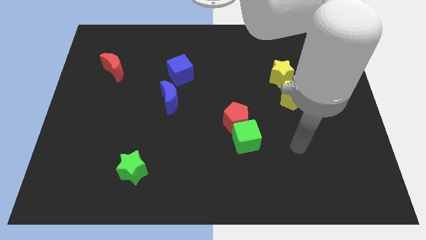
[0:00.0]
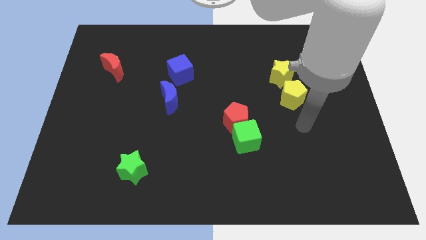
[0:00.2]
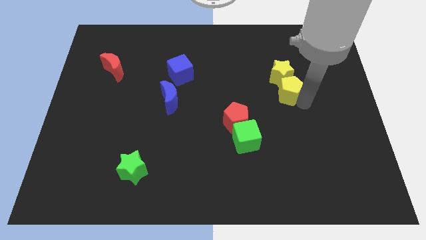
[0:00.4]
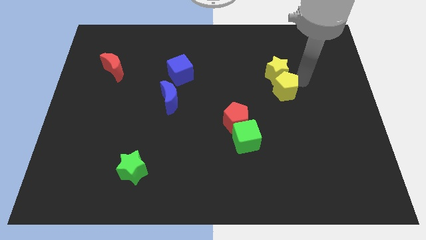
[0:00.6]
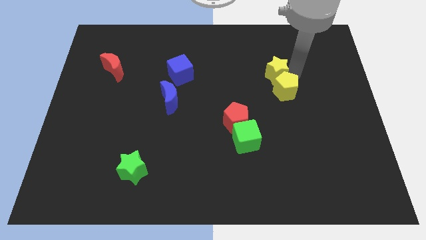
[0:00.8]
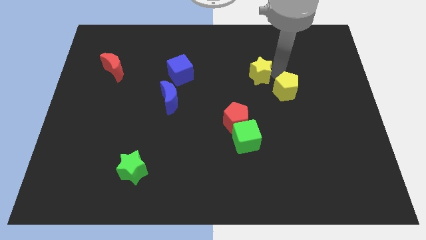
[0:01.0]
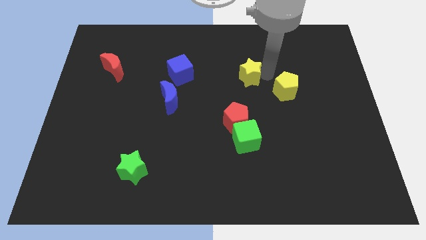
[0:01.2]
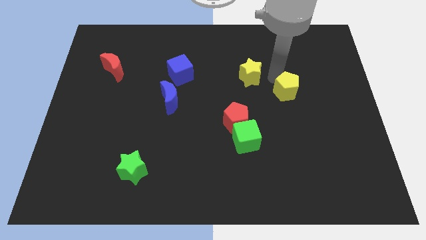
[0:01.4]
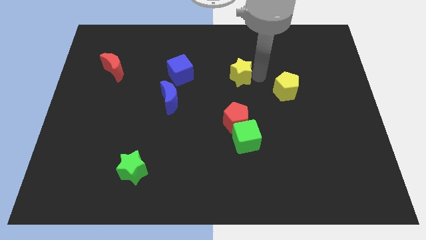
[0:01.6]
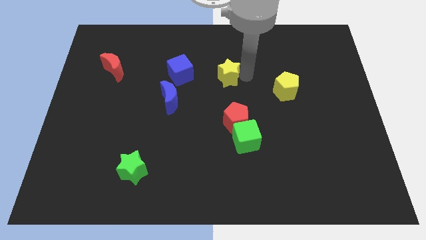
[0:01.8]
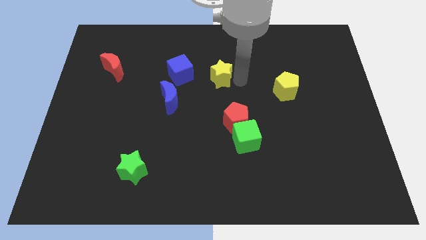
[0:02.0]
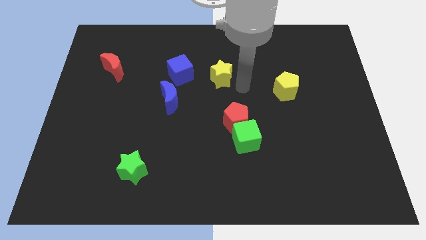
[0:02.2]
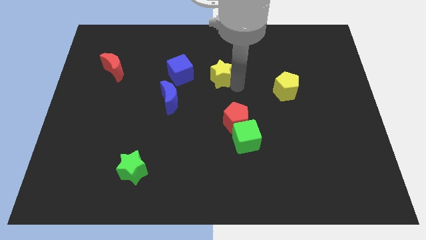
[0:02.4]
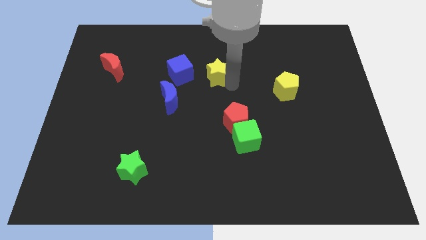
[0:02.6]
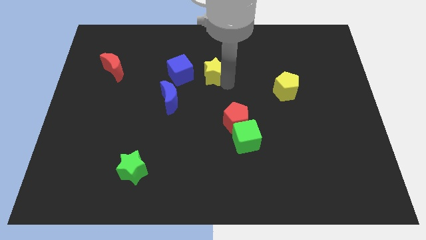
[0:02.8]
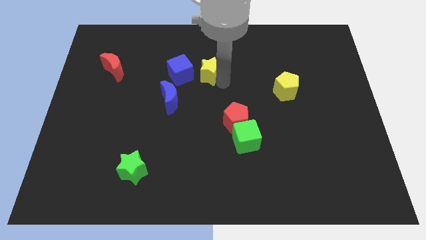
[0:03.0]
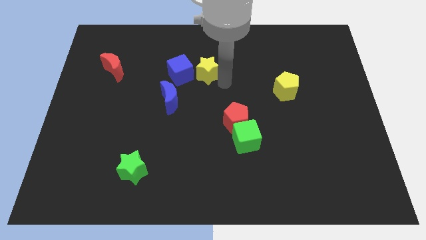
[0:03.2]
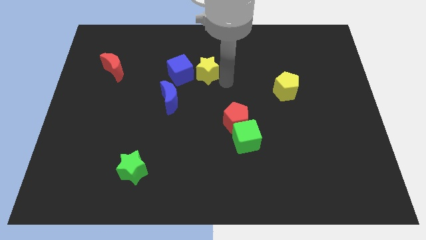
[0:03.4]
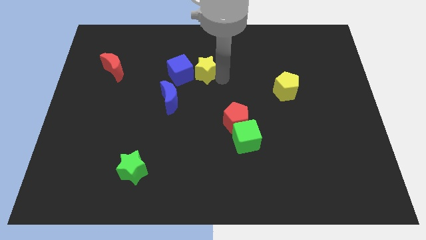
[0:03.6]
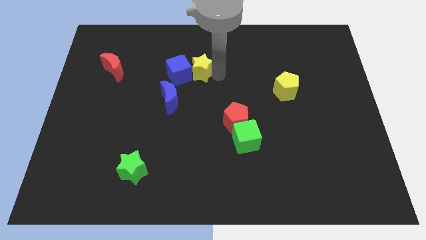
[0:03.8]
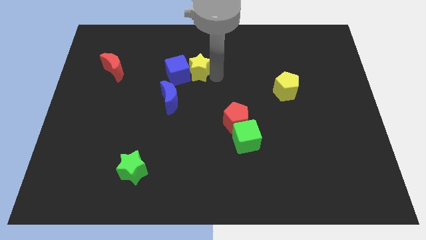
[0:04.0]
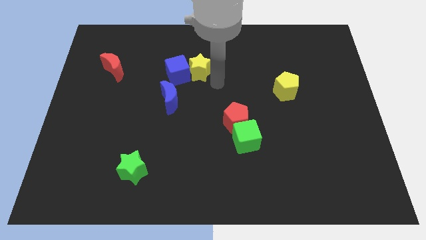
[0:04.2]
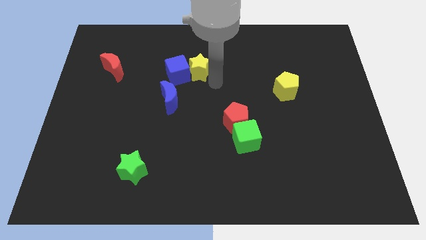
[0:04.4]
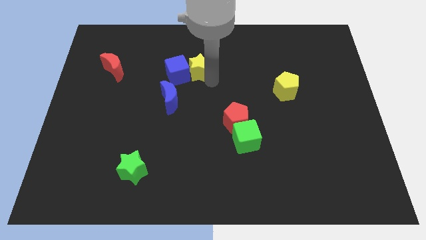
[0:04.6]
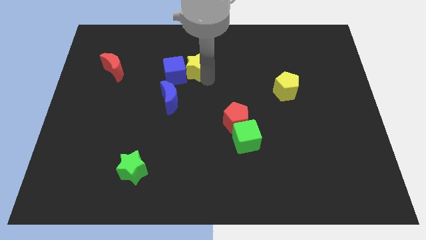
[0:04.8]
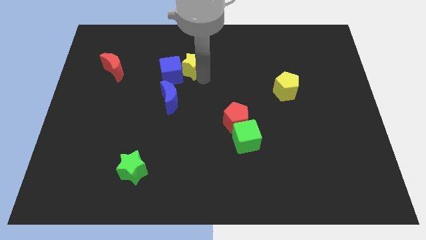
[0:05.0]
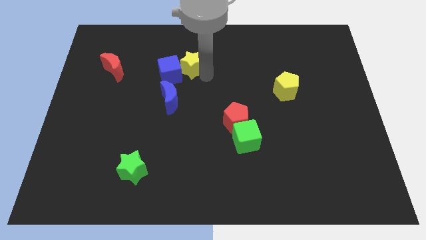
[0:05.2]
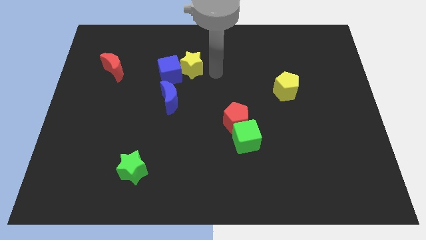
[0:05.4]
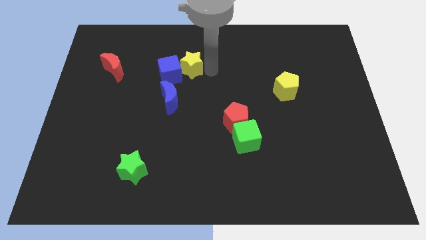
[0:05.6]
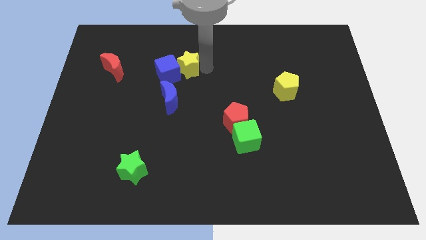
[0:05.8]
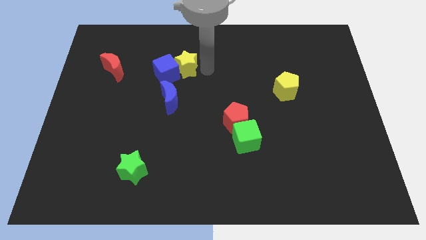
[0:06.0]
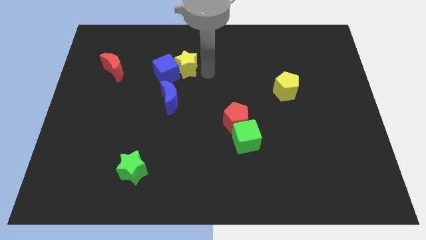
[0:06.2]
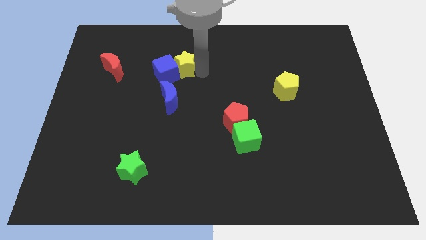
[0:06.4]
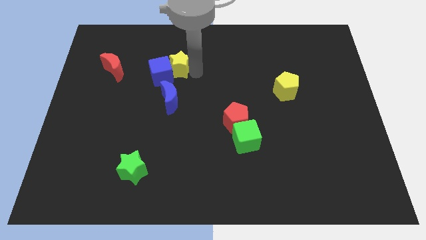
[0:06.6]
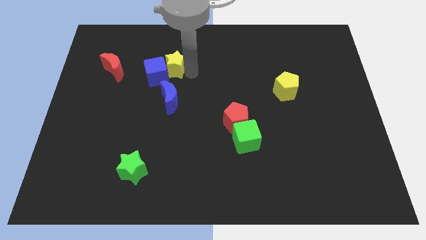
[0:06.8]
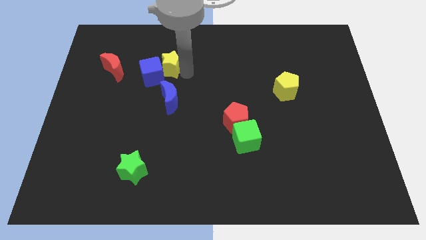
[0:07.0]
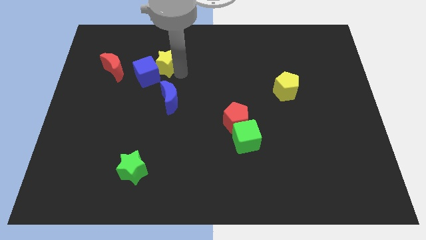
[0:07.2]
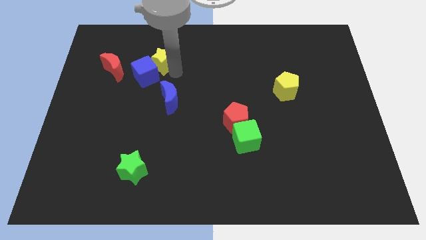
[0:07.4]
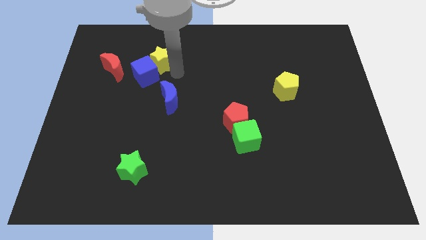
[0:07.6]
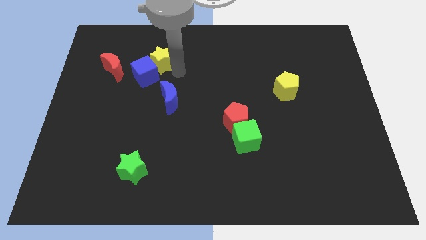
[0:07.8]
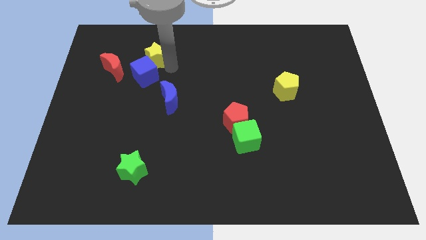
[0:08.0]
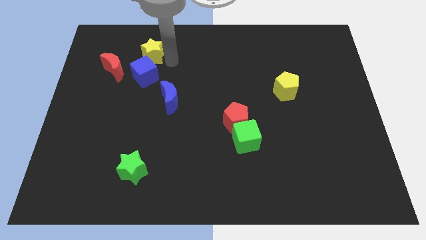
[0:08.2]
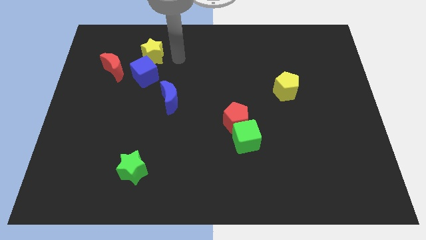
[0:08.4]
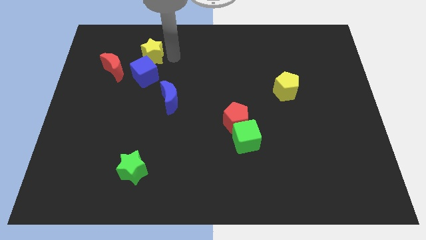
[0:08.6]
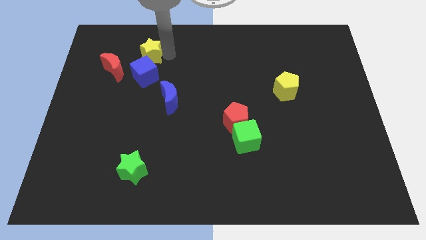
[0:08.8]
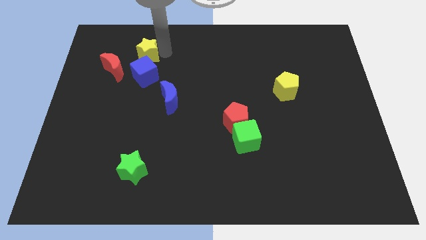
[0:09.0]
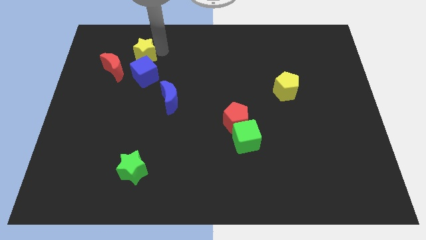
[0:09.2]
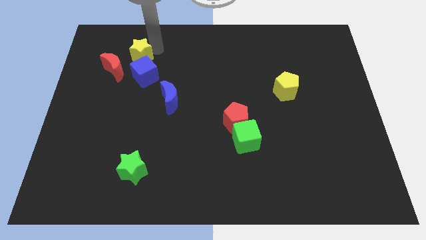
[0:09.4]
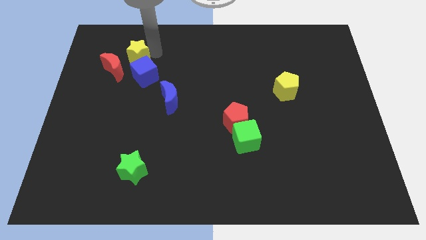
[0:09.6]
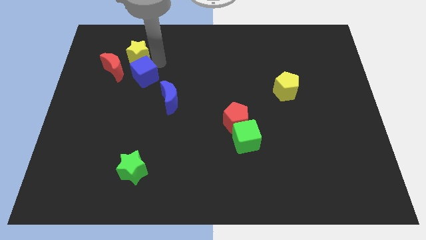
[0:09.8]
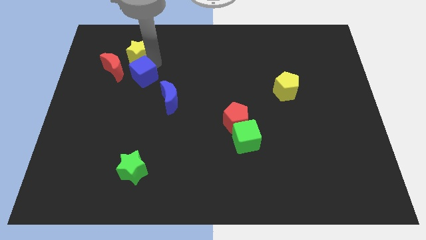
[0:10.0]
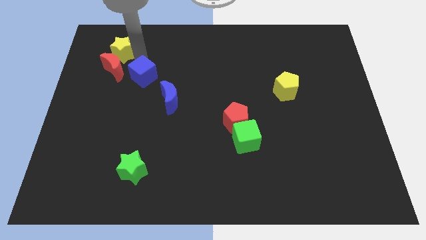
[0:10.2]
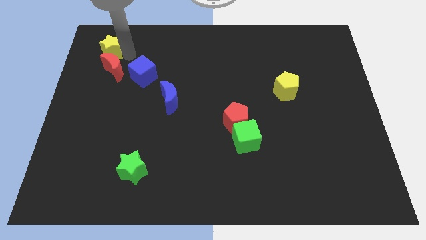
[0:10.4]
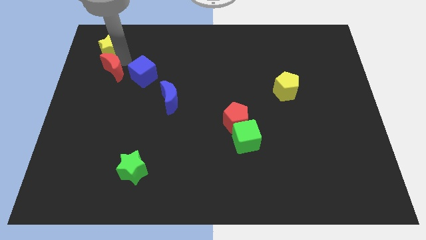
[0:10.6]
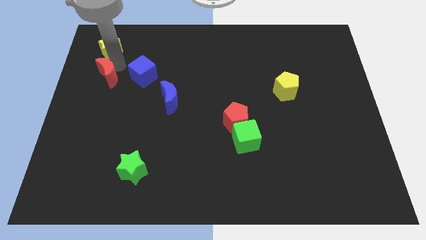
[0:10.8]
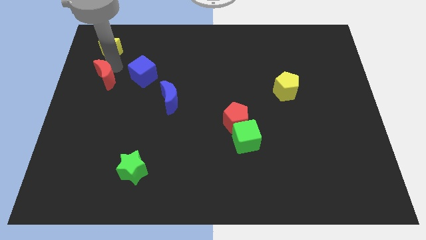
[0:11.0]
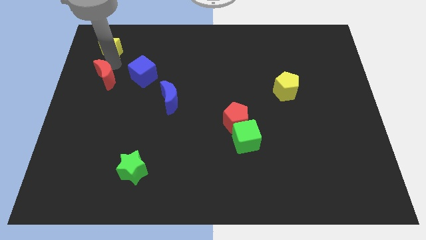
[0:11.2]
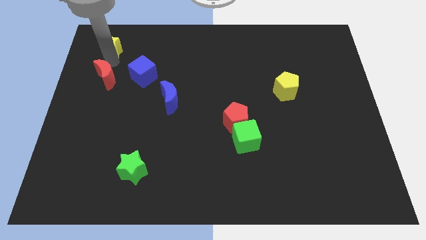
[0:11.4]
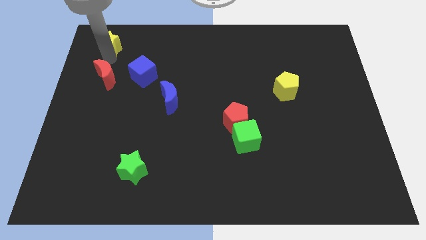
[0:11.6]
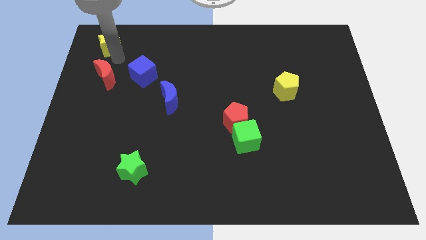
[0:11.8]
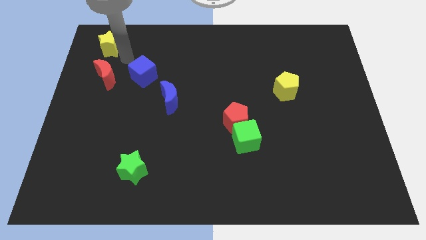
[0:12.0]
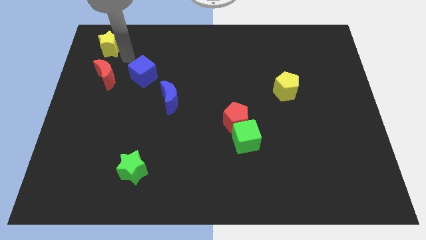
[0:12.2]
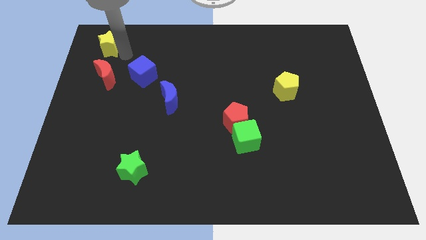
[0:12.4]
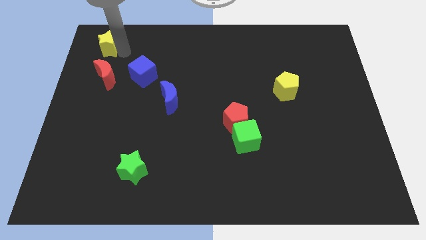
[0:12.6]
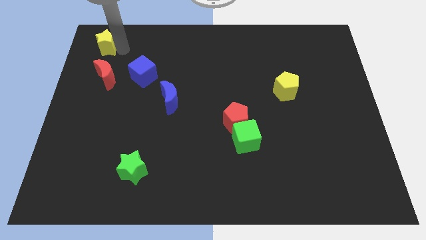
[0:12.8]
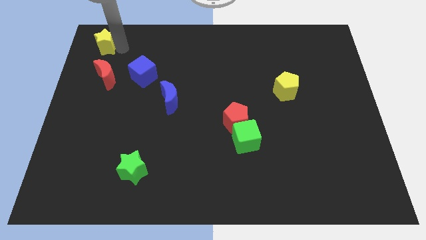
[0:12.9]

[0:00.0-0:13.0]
push the yellow star to the top left
